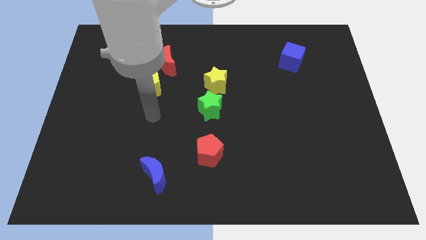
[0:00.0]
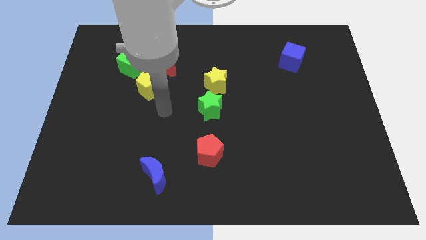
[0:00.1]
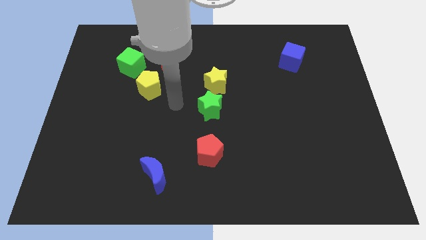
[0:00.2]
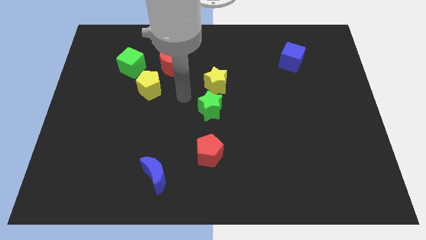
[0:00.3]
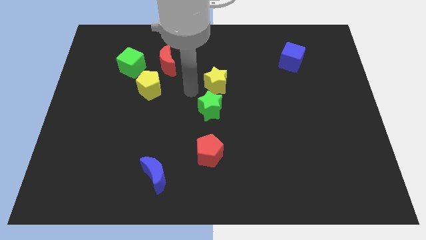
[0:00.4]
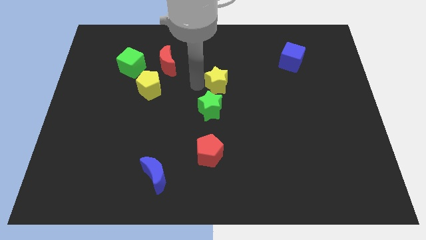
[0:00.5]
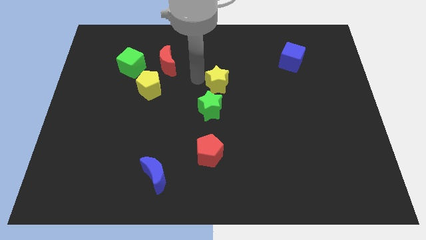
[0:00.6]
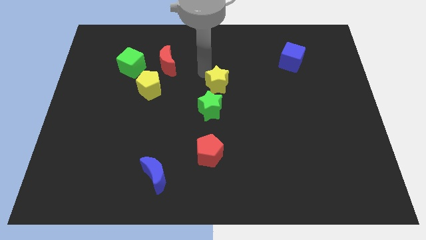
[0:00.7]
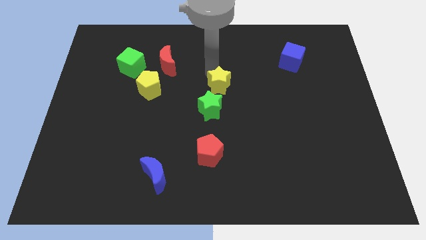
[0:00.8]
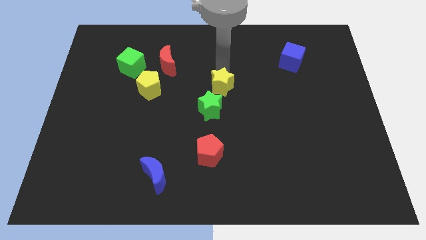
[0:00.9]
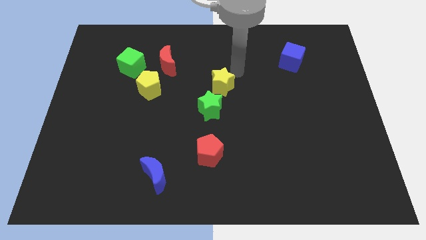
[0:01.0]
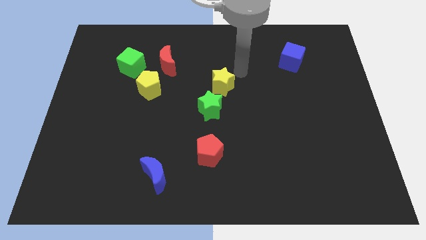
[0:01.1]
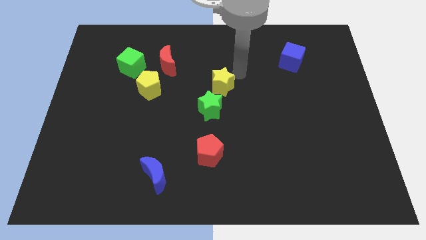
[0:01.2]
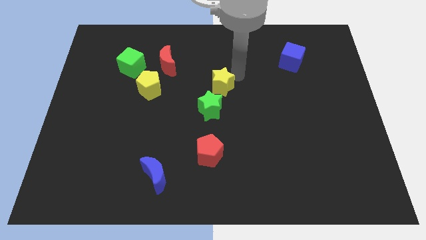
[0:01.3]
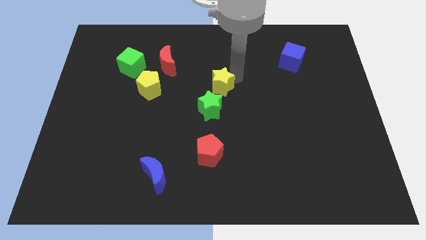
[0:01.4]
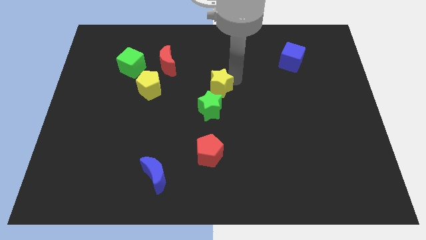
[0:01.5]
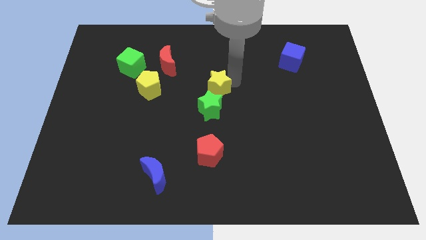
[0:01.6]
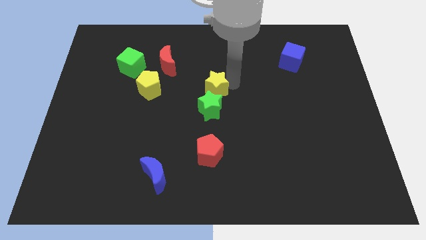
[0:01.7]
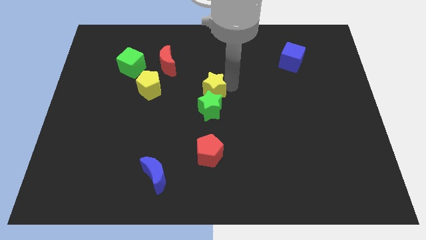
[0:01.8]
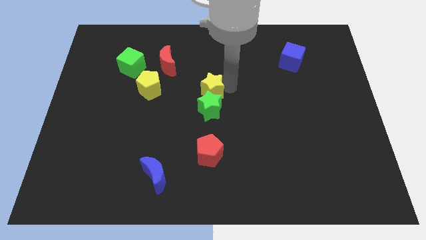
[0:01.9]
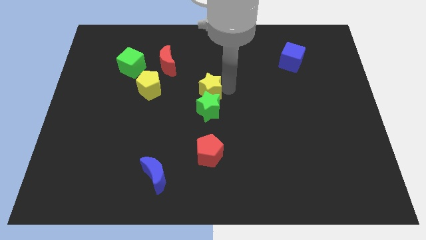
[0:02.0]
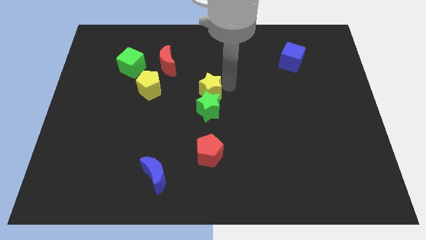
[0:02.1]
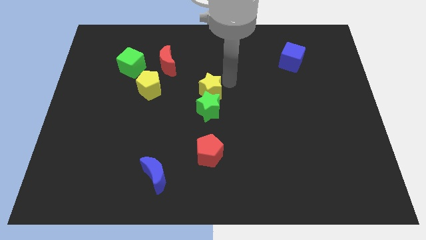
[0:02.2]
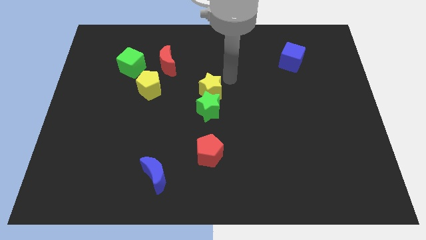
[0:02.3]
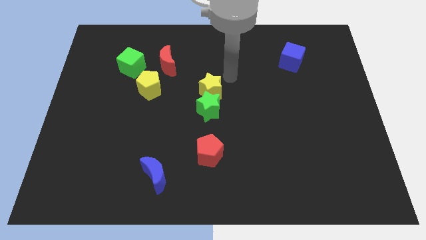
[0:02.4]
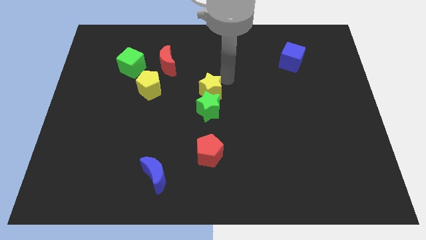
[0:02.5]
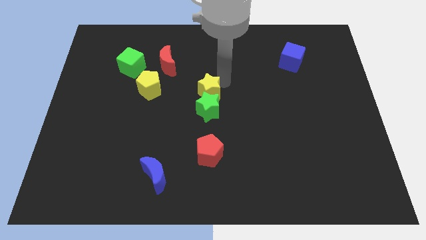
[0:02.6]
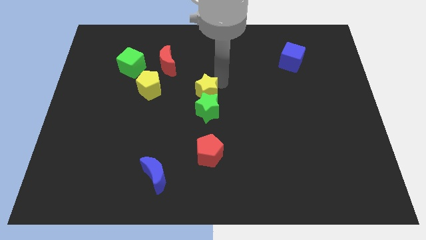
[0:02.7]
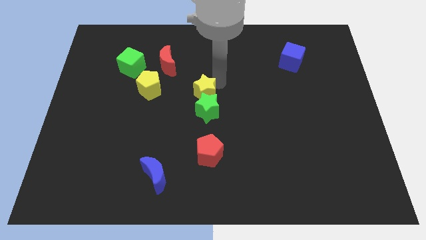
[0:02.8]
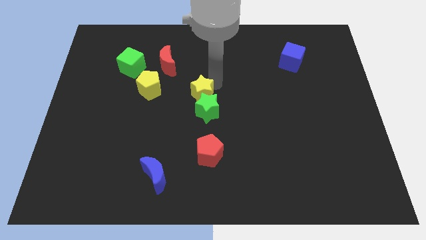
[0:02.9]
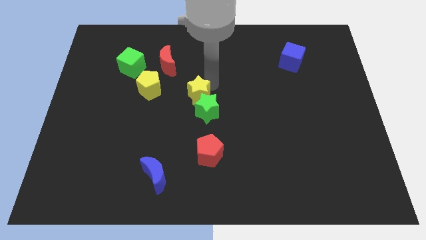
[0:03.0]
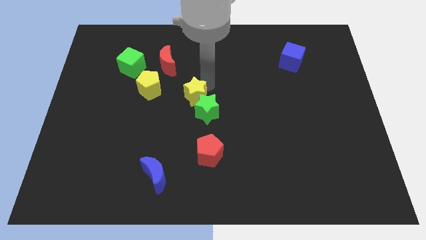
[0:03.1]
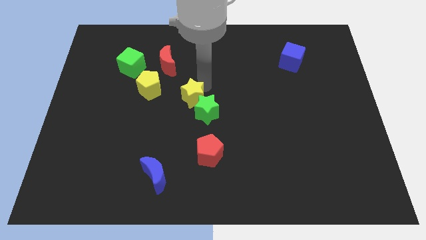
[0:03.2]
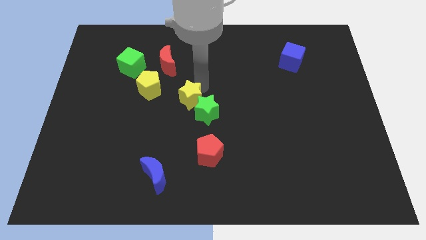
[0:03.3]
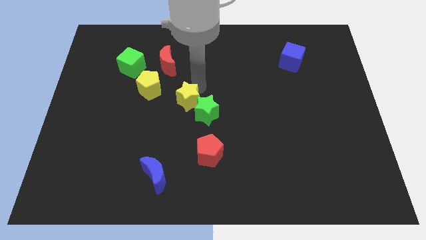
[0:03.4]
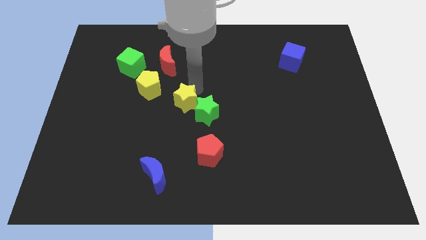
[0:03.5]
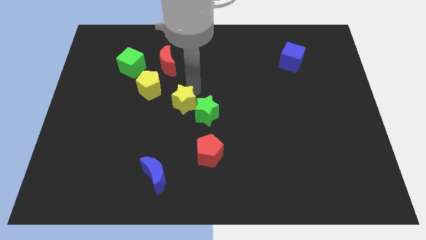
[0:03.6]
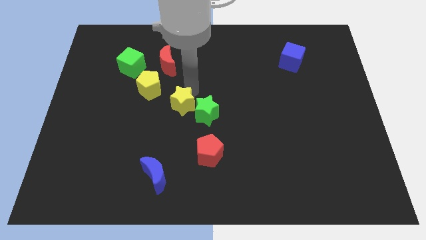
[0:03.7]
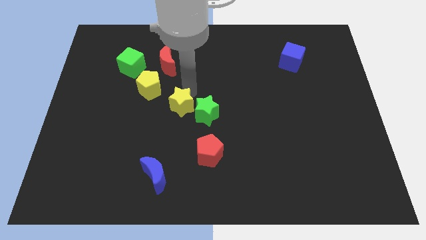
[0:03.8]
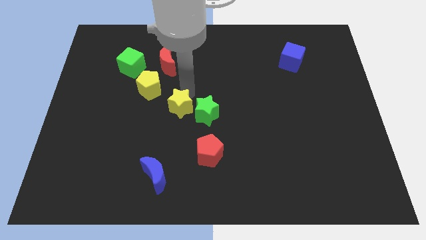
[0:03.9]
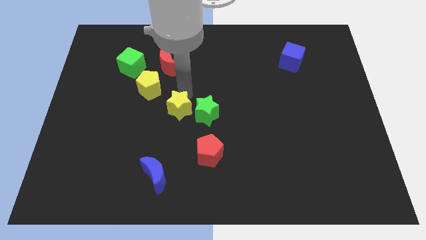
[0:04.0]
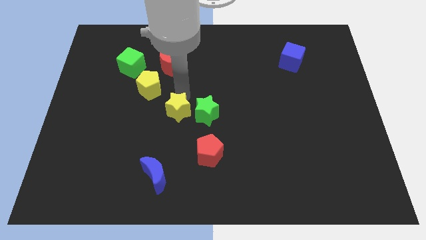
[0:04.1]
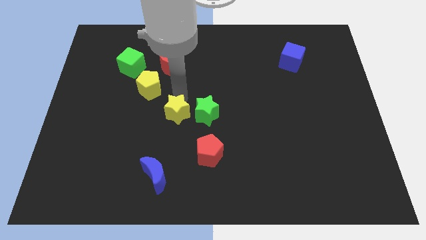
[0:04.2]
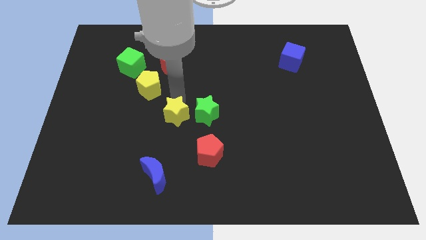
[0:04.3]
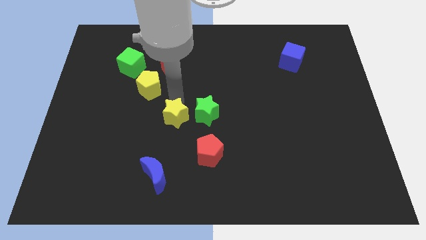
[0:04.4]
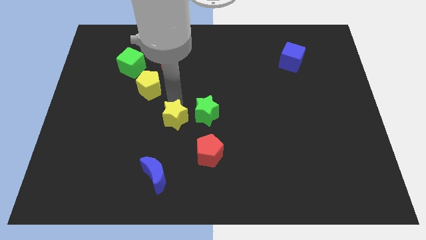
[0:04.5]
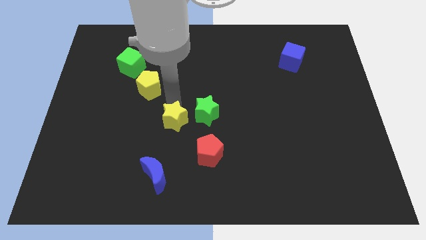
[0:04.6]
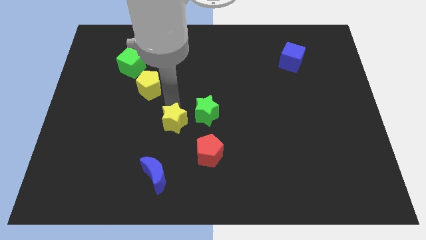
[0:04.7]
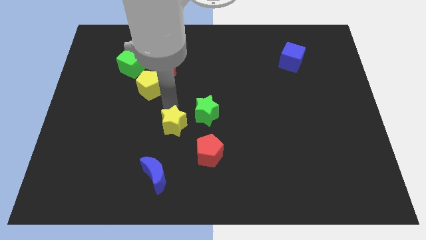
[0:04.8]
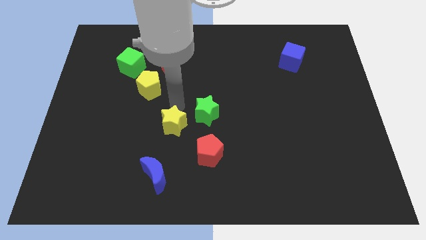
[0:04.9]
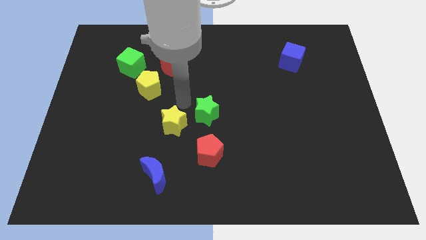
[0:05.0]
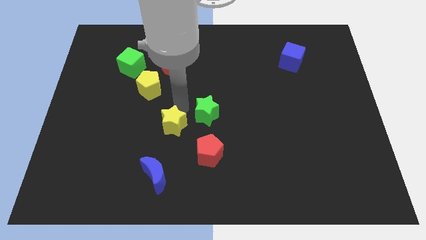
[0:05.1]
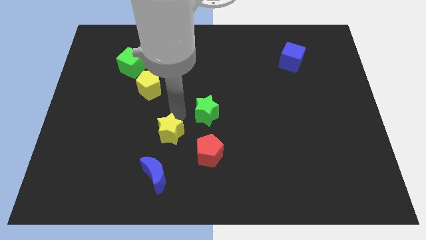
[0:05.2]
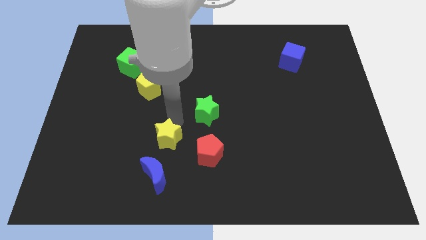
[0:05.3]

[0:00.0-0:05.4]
move the yellow star to the left of the red pentagon

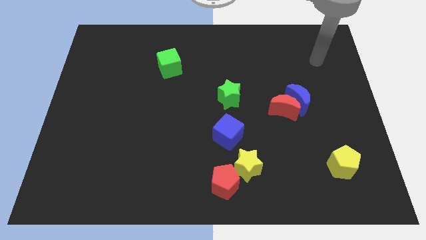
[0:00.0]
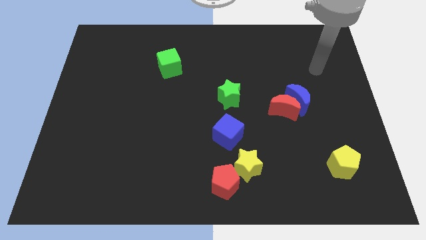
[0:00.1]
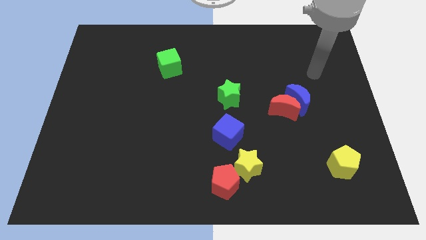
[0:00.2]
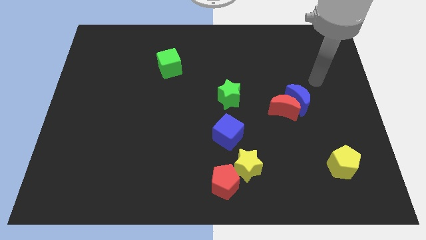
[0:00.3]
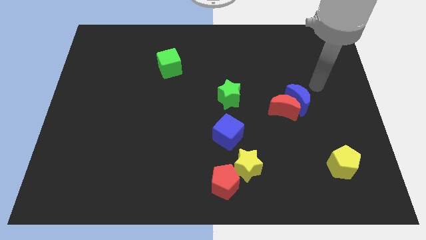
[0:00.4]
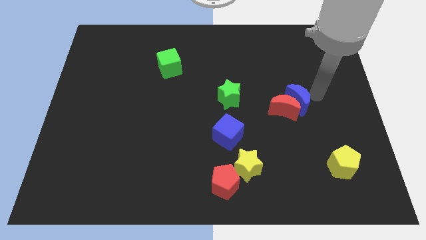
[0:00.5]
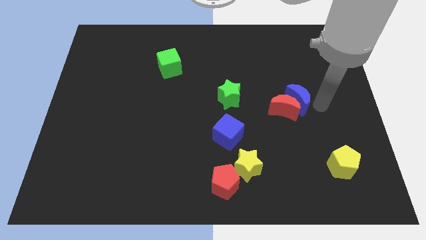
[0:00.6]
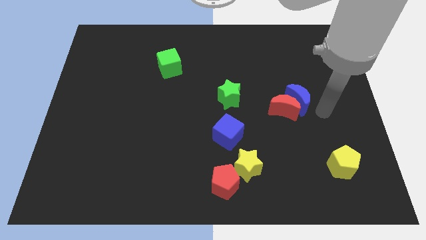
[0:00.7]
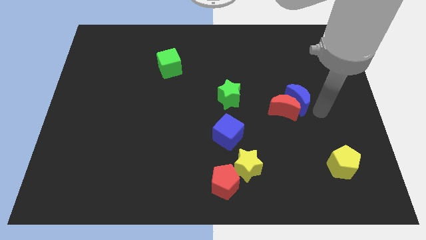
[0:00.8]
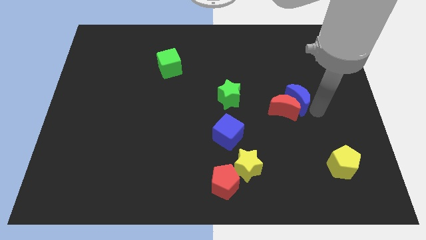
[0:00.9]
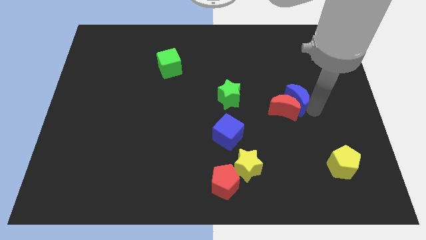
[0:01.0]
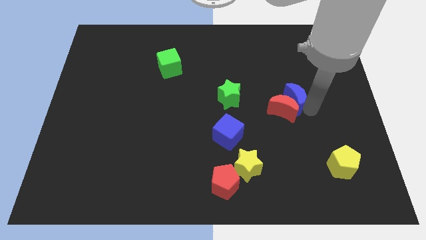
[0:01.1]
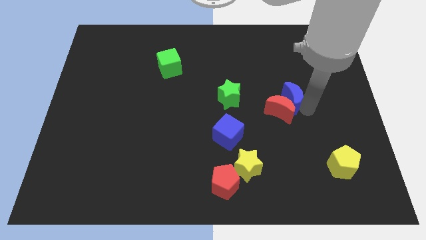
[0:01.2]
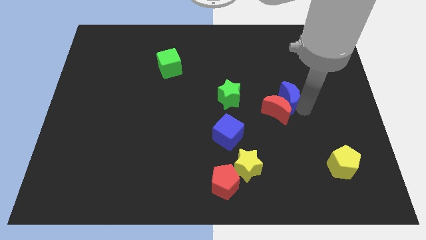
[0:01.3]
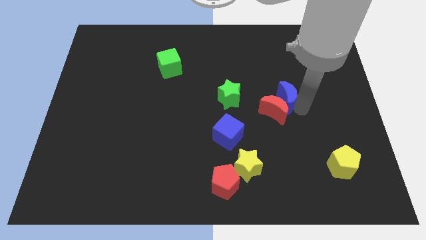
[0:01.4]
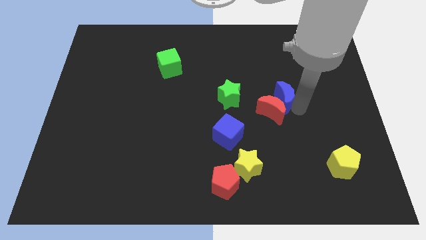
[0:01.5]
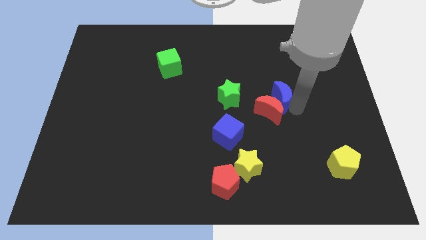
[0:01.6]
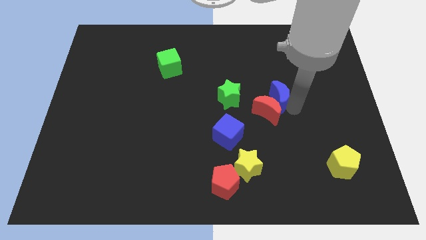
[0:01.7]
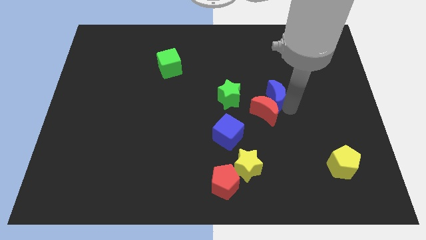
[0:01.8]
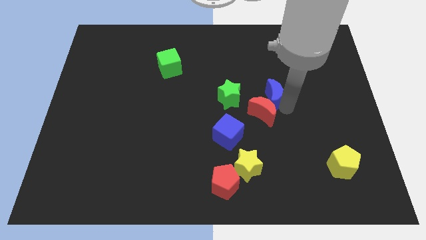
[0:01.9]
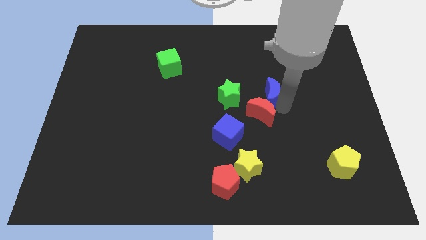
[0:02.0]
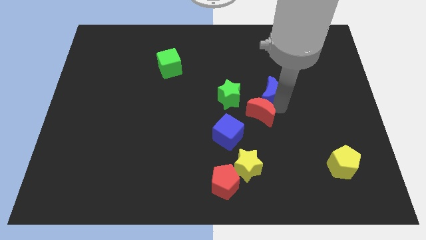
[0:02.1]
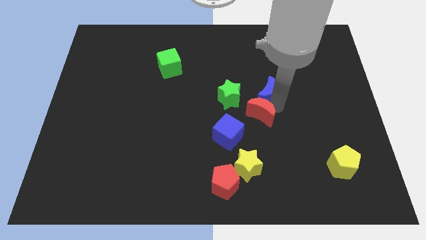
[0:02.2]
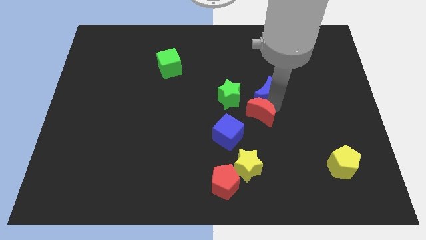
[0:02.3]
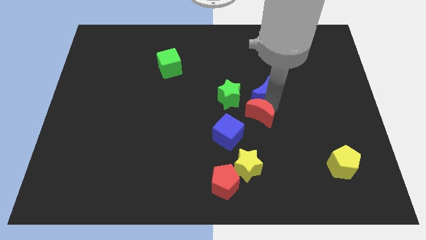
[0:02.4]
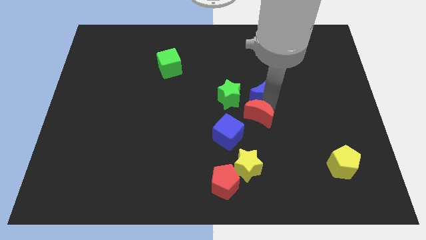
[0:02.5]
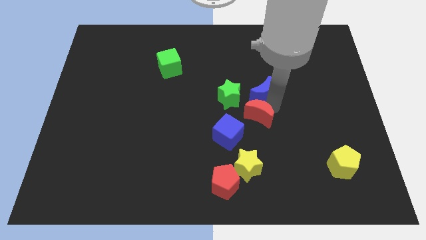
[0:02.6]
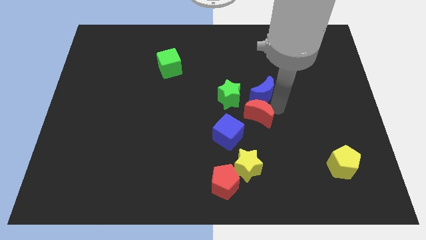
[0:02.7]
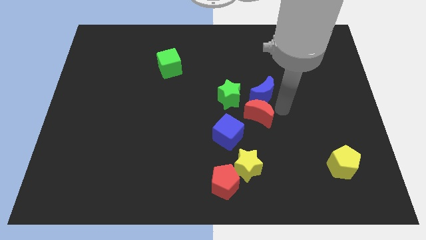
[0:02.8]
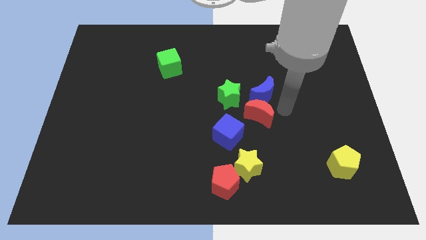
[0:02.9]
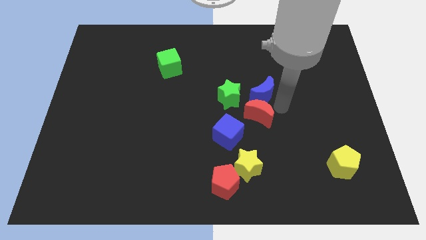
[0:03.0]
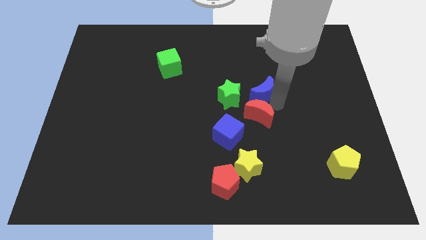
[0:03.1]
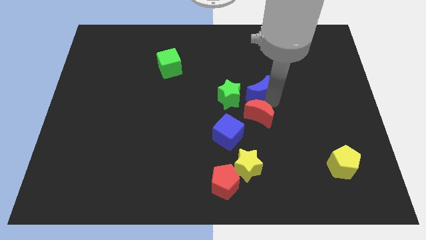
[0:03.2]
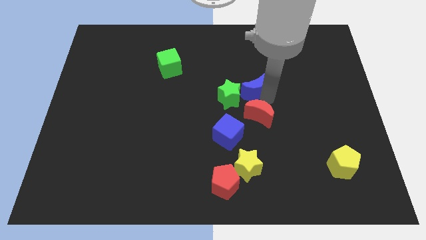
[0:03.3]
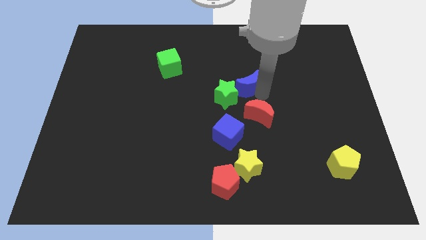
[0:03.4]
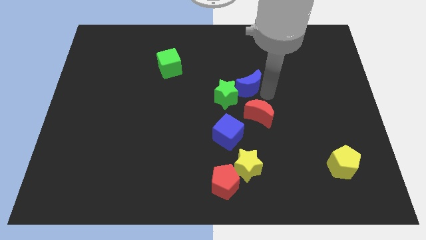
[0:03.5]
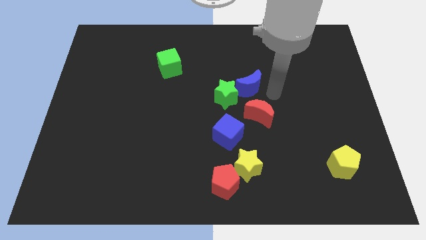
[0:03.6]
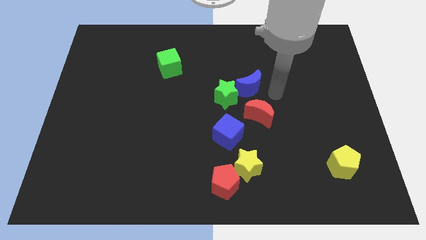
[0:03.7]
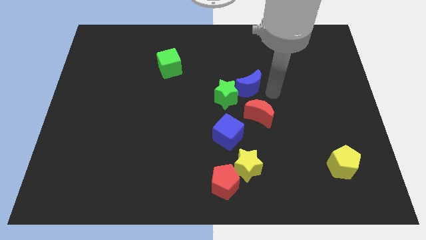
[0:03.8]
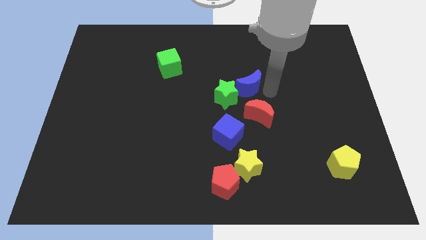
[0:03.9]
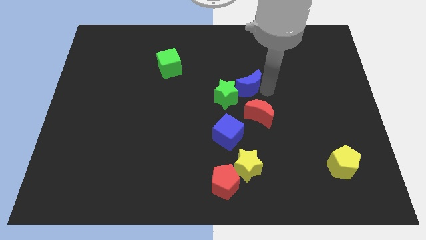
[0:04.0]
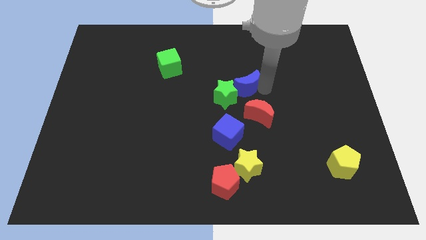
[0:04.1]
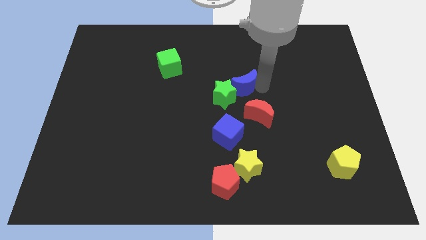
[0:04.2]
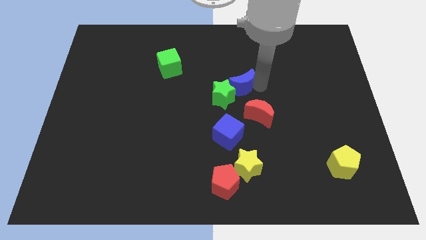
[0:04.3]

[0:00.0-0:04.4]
push the blue moon to the top of the blue cube
